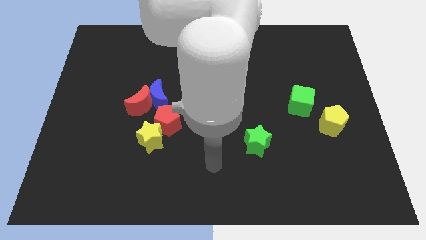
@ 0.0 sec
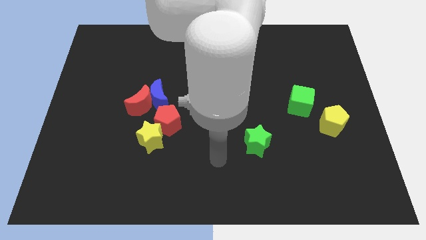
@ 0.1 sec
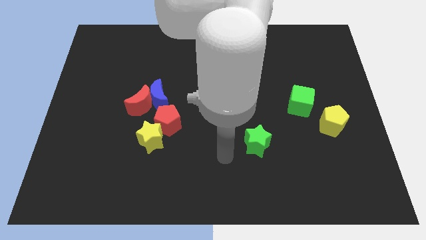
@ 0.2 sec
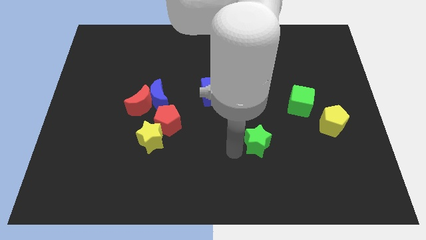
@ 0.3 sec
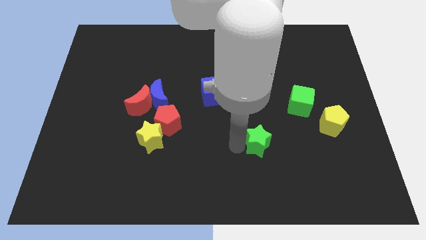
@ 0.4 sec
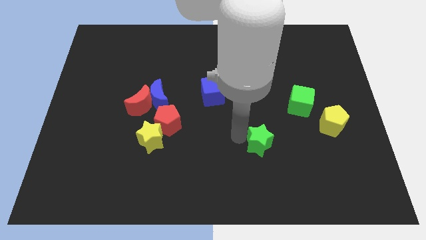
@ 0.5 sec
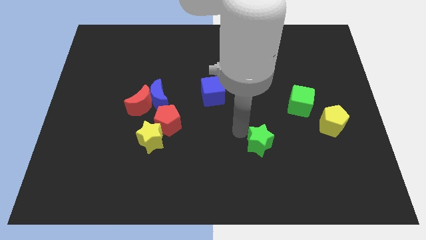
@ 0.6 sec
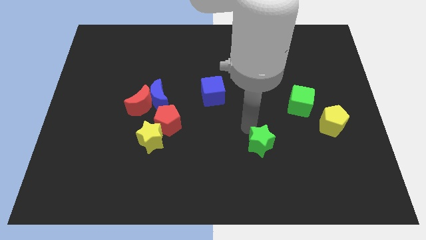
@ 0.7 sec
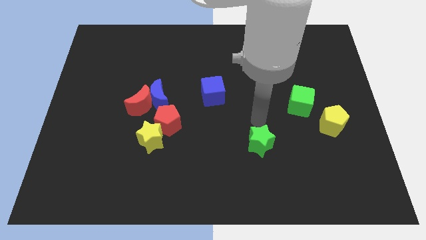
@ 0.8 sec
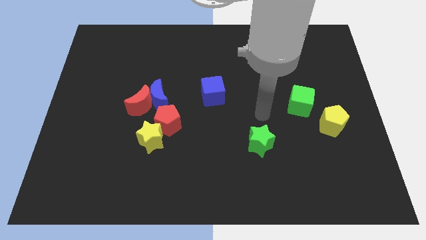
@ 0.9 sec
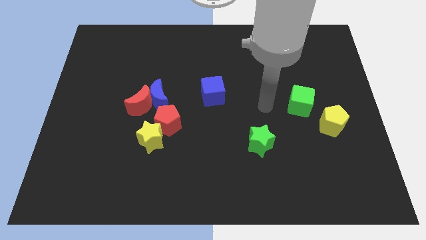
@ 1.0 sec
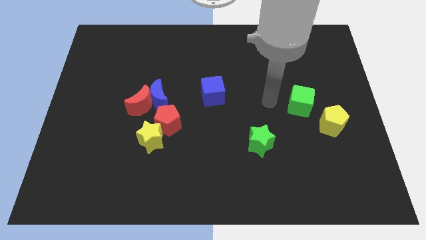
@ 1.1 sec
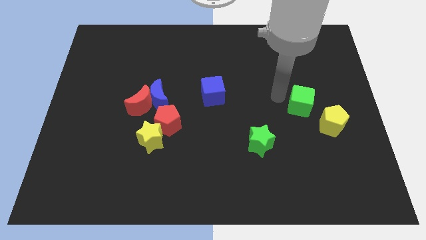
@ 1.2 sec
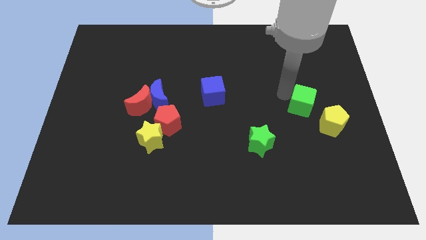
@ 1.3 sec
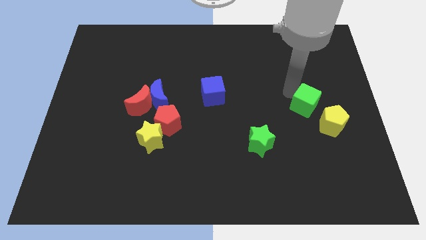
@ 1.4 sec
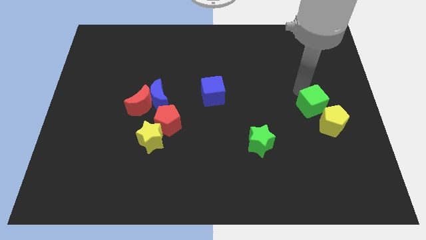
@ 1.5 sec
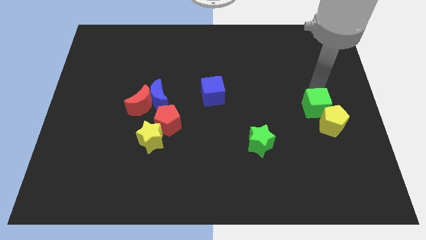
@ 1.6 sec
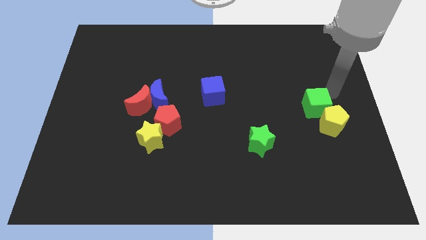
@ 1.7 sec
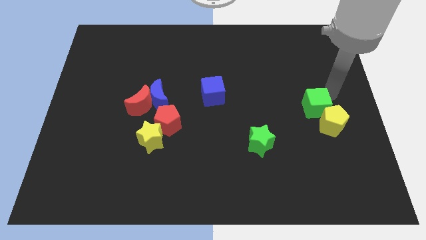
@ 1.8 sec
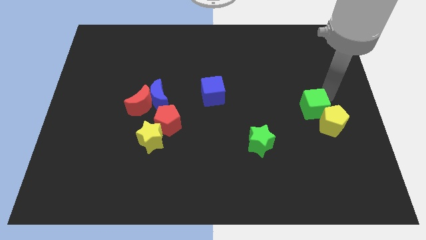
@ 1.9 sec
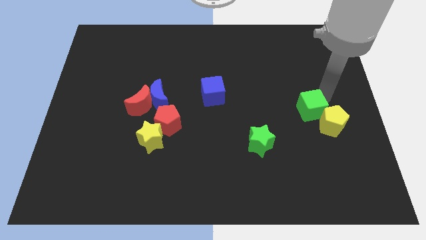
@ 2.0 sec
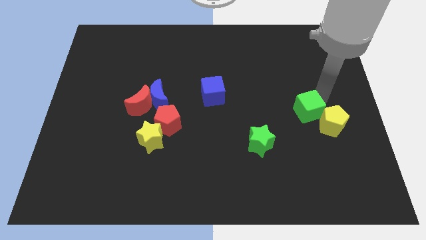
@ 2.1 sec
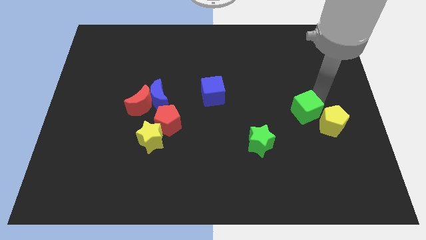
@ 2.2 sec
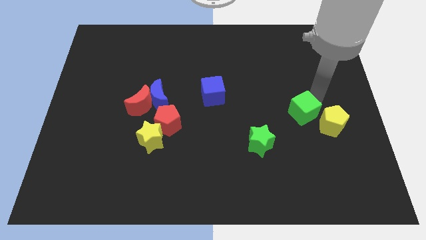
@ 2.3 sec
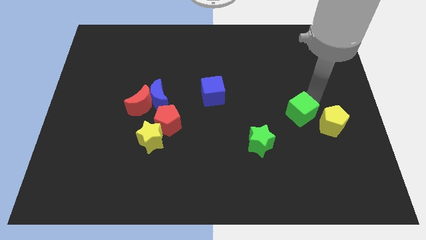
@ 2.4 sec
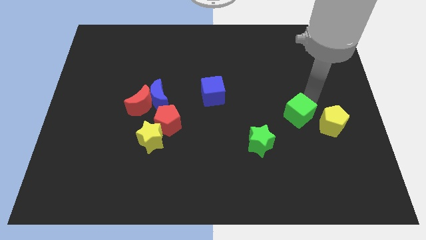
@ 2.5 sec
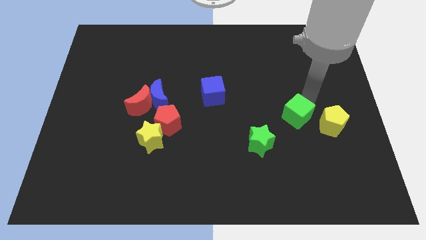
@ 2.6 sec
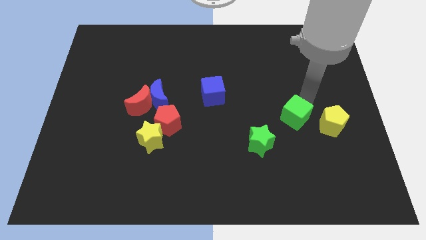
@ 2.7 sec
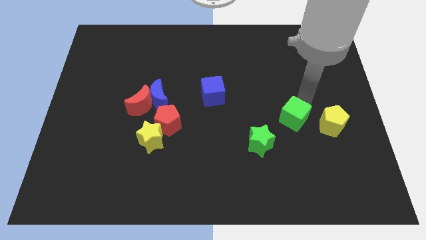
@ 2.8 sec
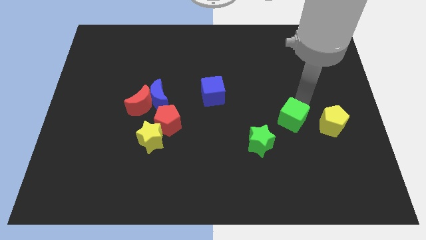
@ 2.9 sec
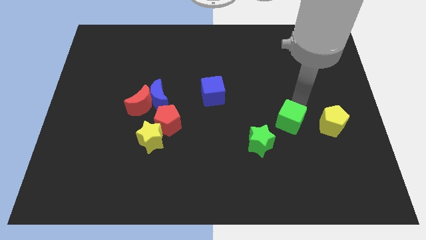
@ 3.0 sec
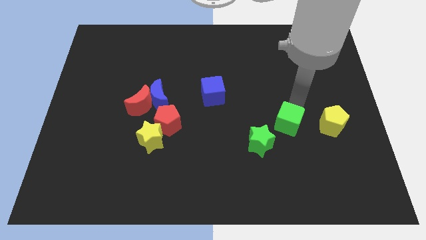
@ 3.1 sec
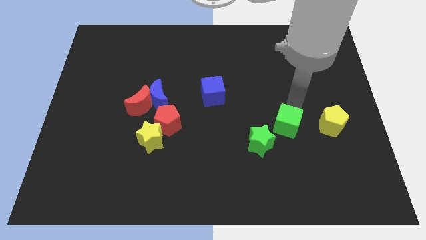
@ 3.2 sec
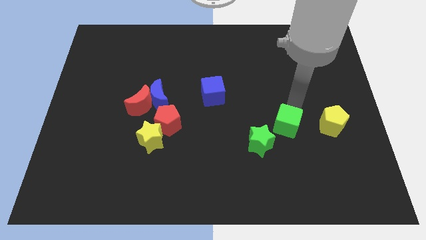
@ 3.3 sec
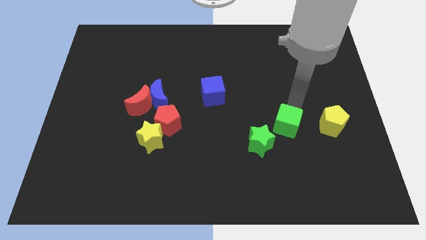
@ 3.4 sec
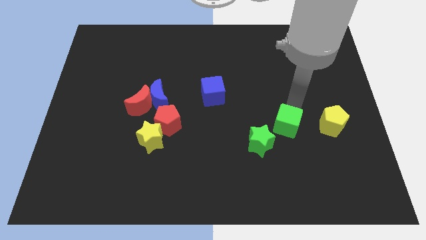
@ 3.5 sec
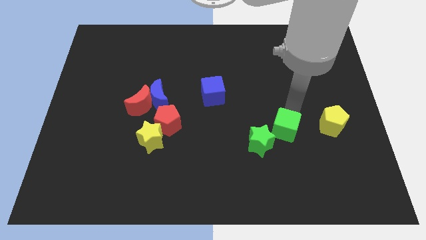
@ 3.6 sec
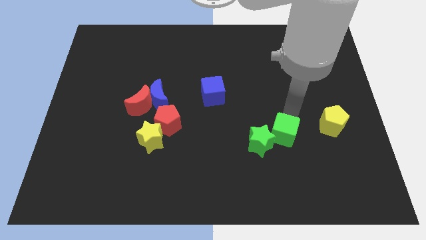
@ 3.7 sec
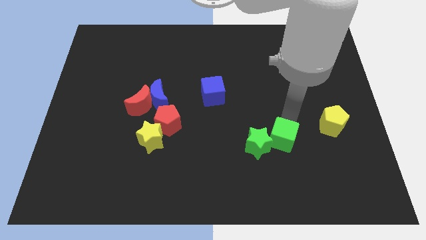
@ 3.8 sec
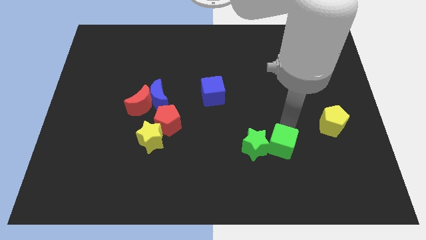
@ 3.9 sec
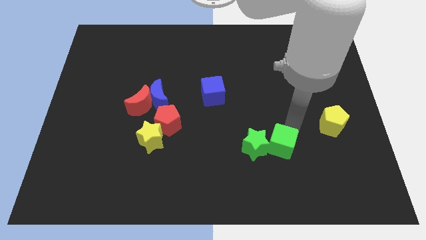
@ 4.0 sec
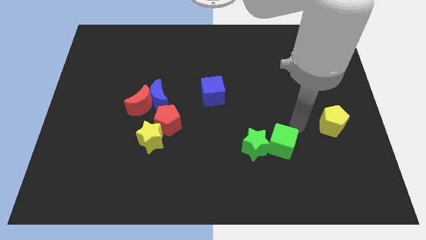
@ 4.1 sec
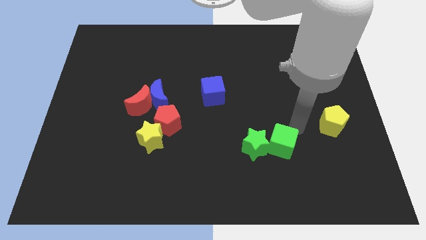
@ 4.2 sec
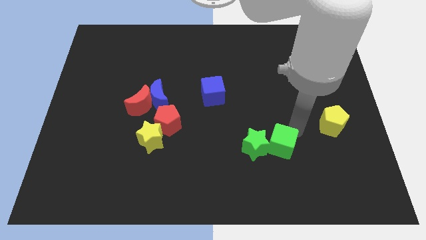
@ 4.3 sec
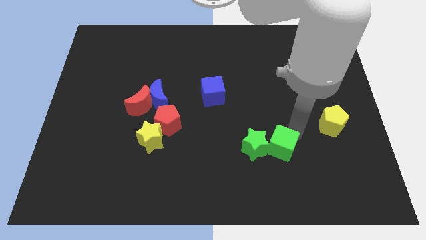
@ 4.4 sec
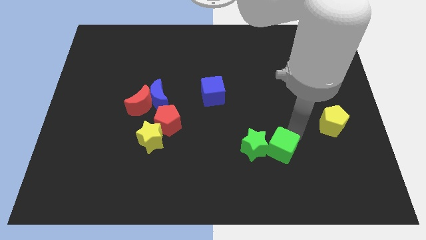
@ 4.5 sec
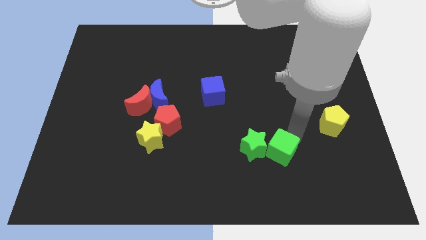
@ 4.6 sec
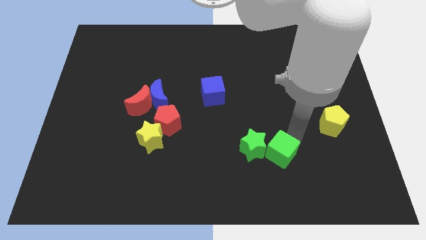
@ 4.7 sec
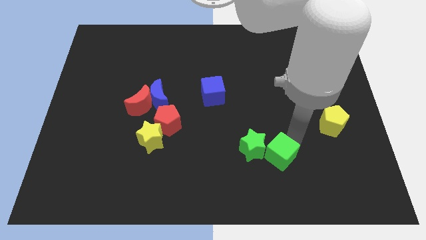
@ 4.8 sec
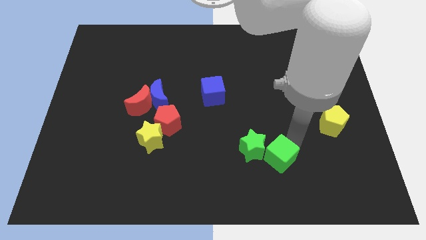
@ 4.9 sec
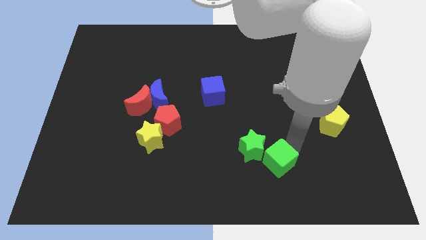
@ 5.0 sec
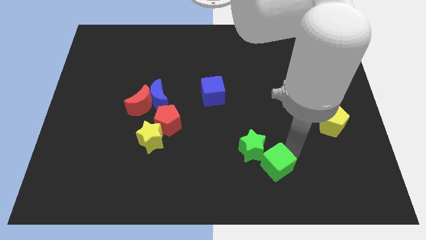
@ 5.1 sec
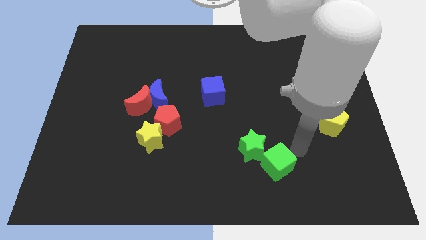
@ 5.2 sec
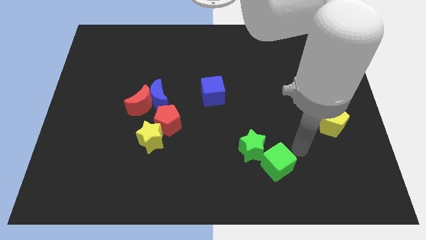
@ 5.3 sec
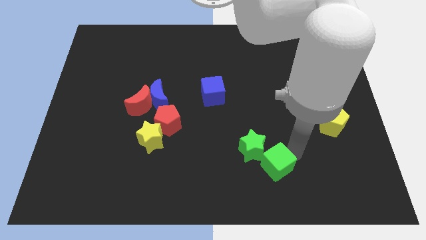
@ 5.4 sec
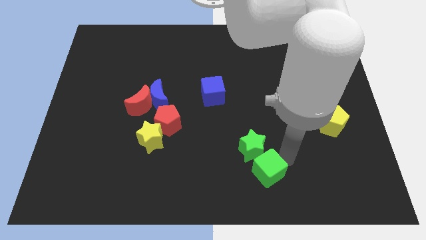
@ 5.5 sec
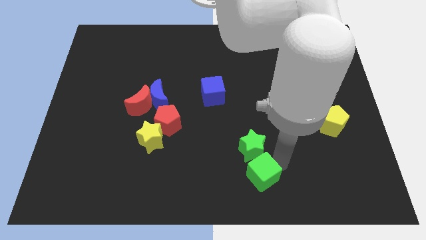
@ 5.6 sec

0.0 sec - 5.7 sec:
slide the green cube to the bottom side
